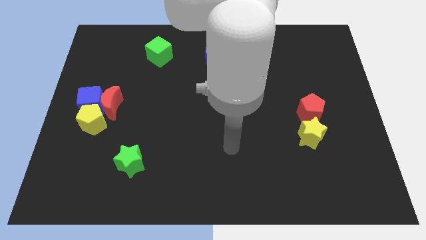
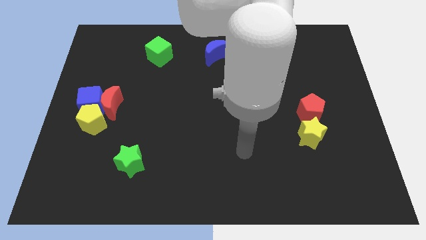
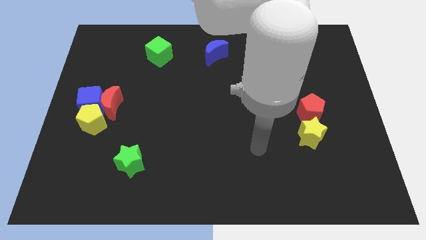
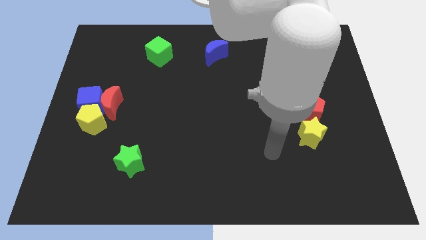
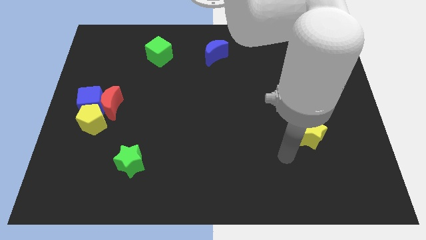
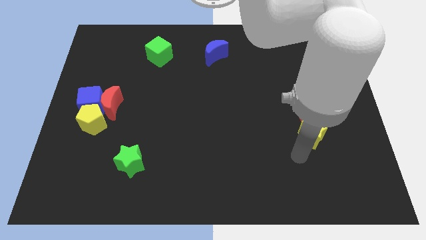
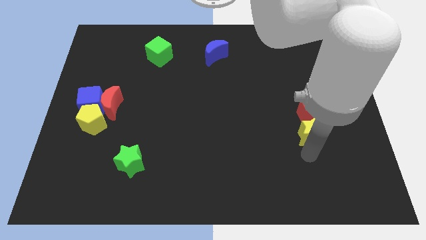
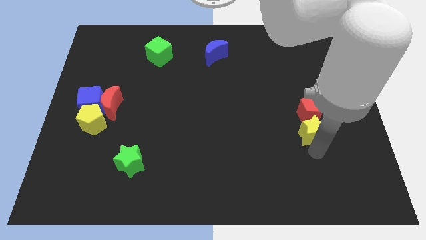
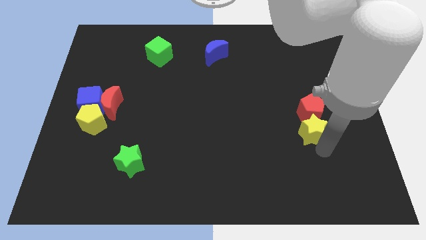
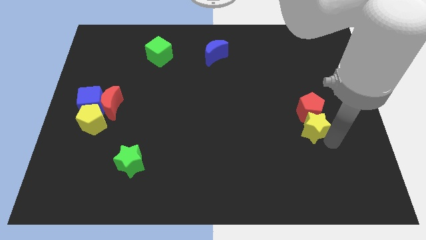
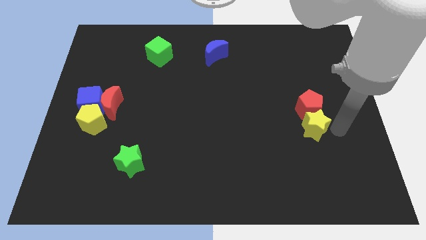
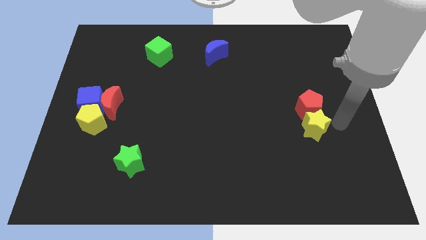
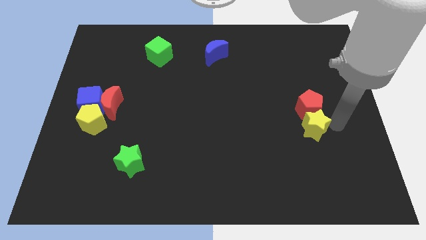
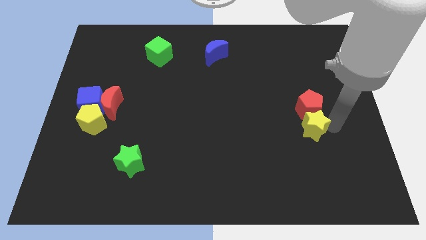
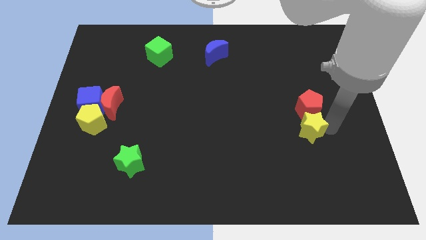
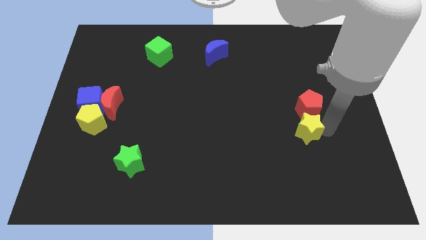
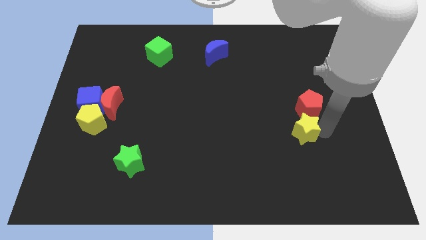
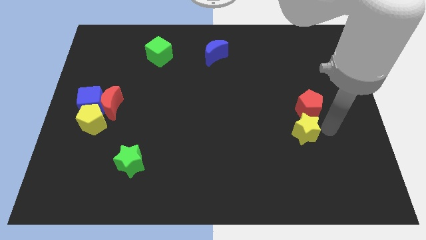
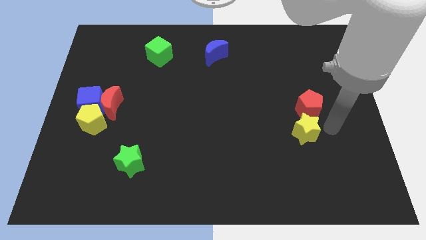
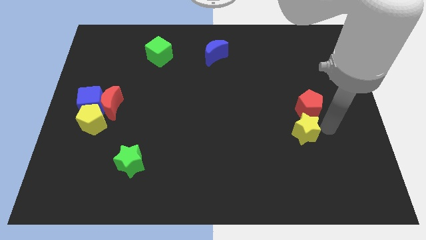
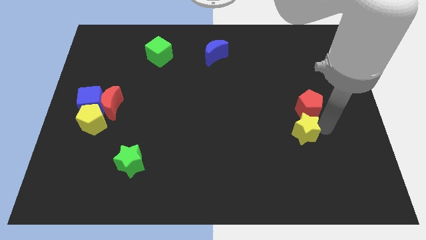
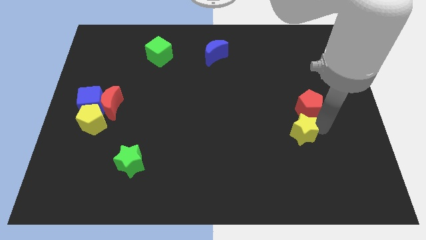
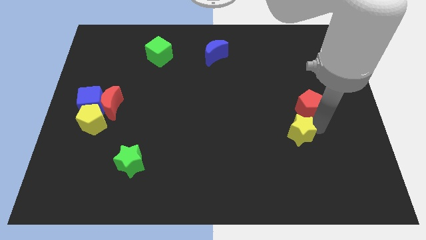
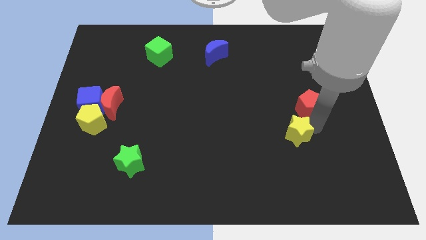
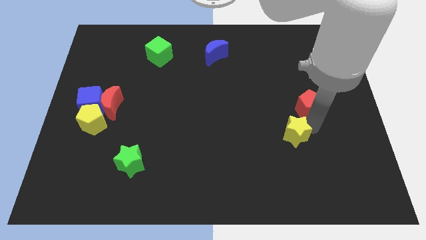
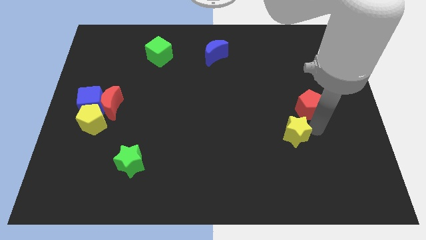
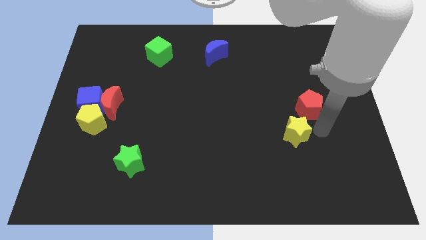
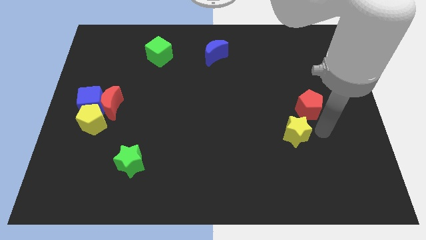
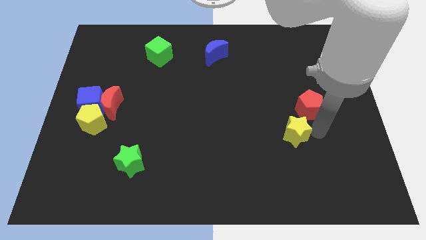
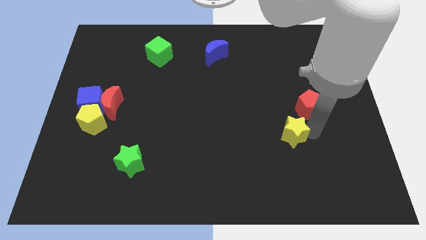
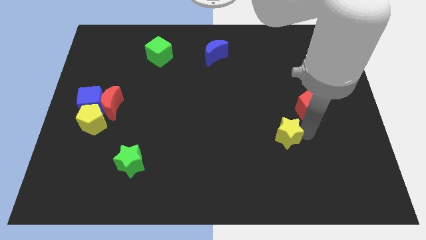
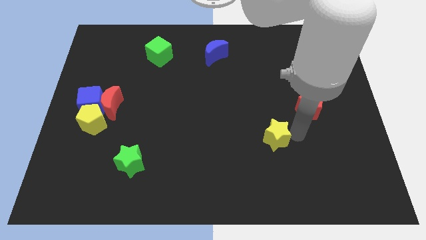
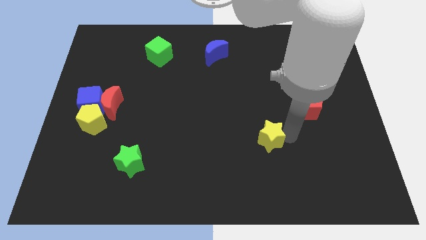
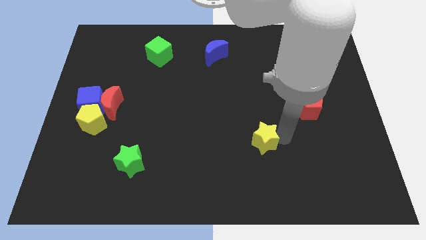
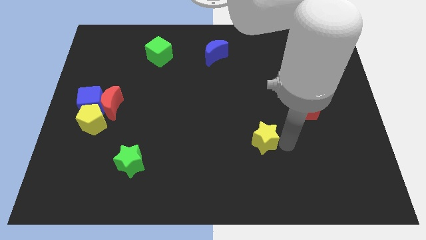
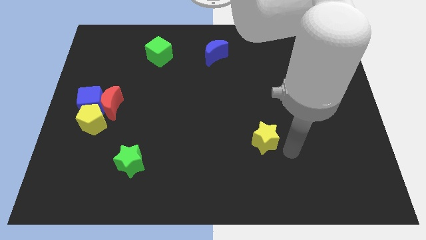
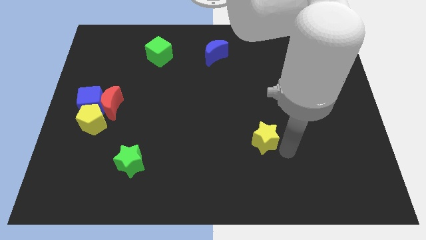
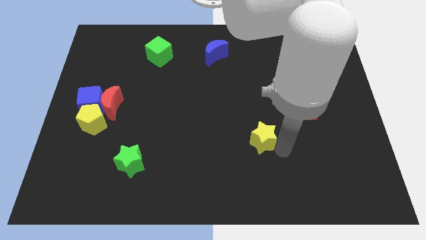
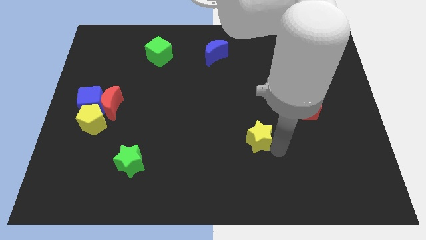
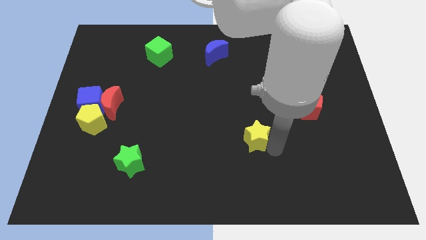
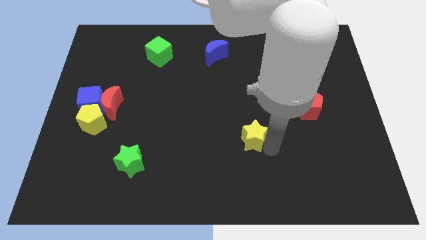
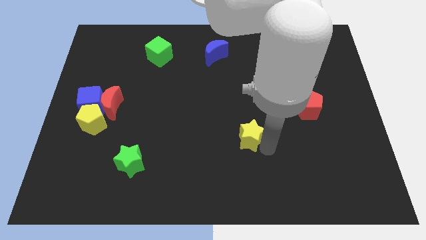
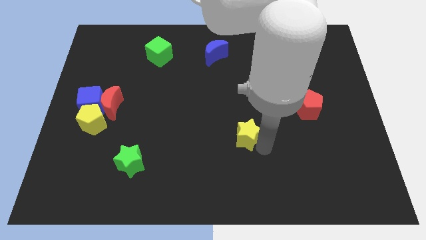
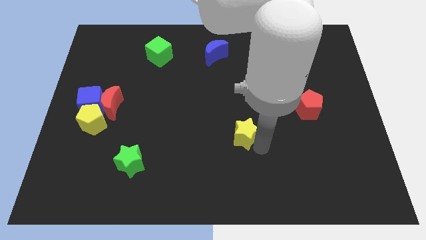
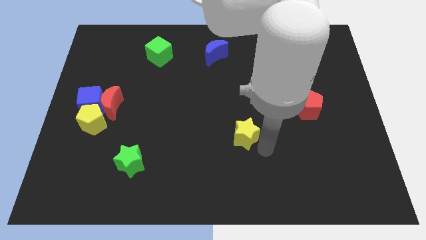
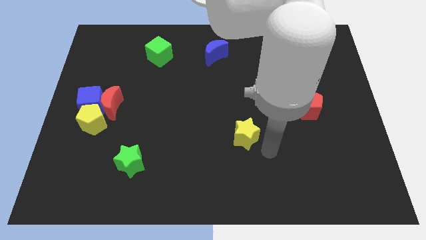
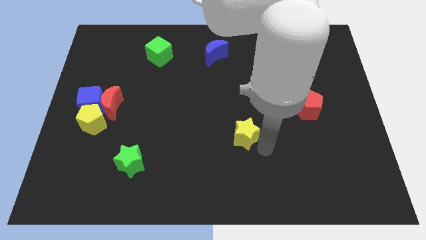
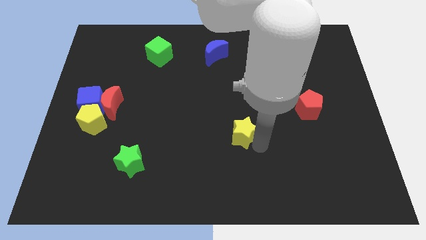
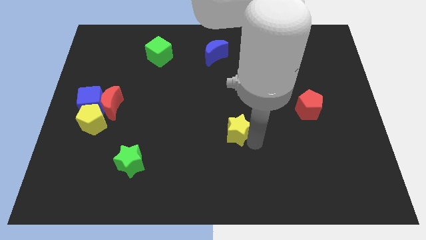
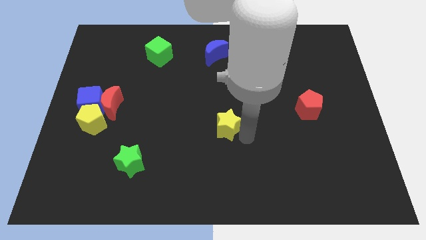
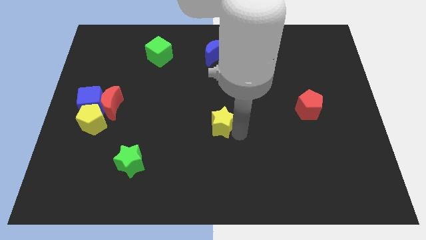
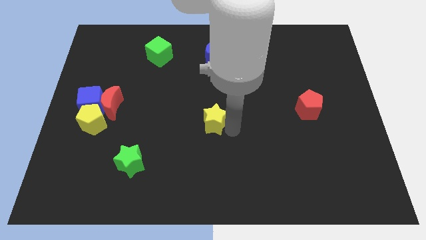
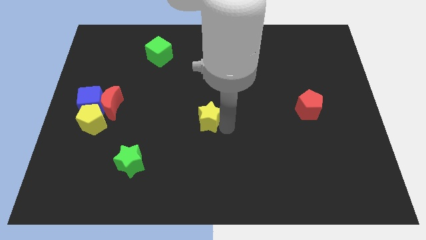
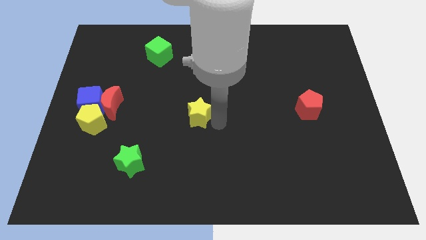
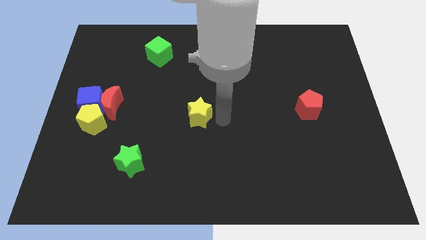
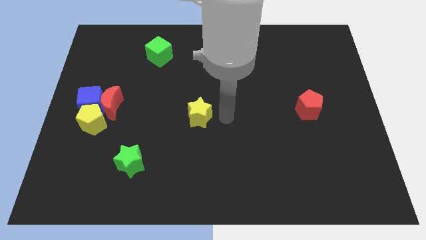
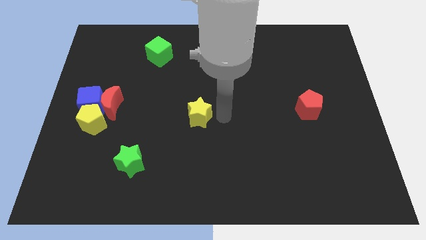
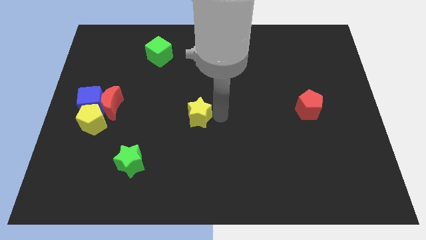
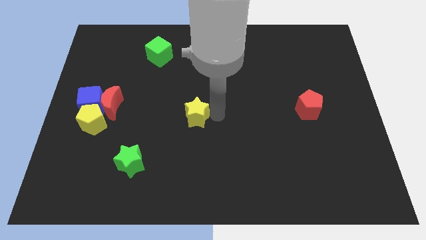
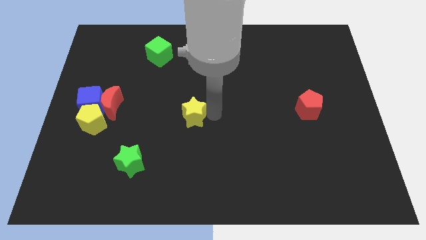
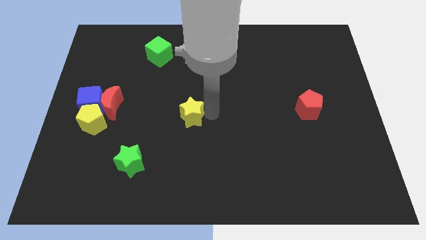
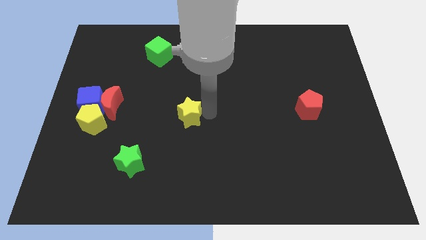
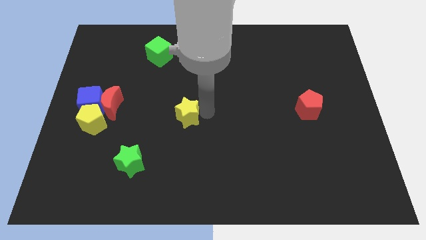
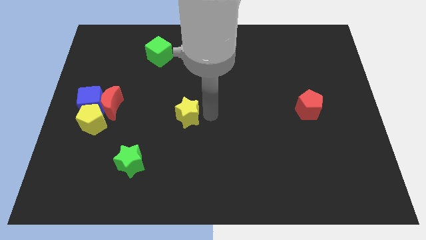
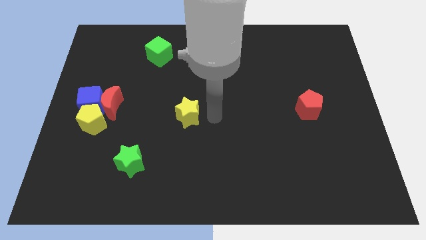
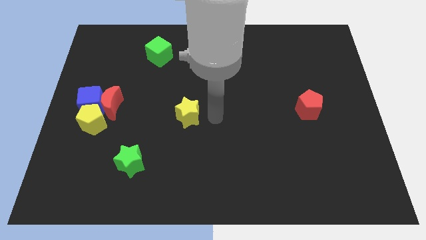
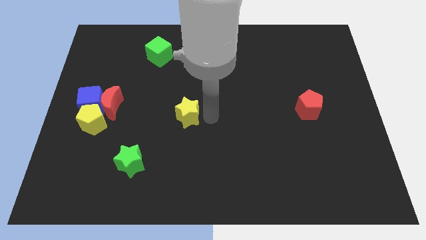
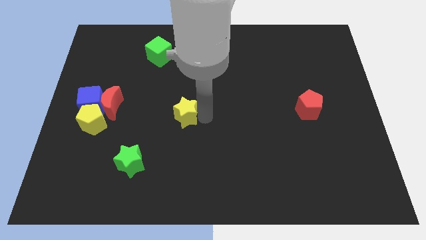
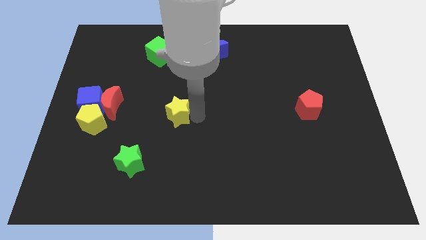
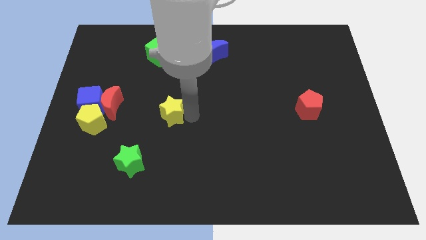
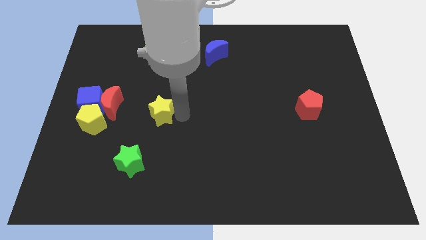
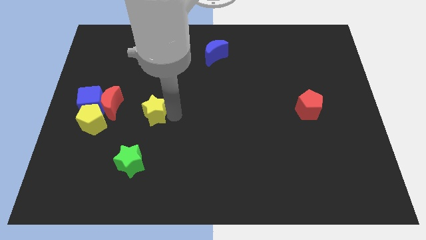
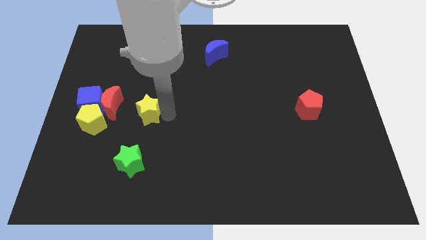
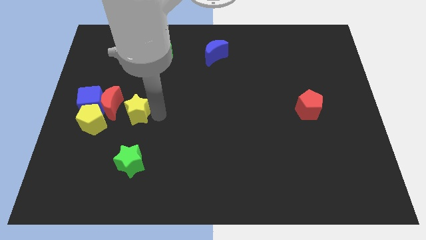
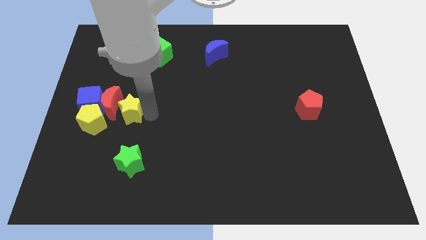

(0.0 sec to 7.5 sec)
put the yellow star to the red moon
